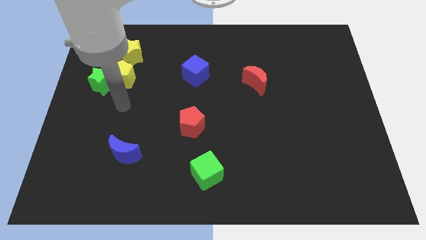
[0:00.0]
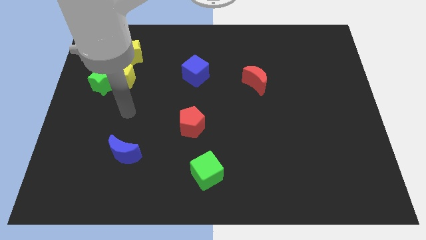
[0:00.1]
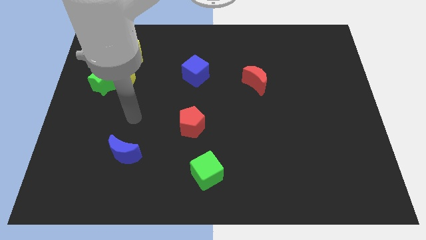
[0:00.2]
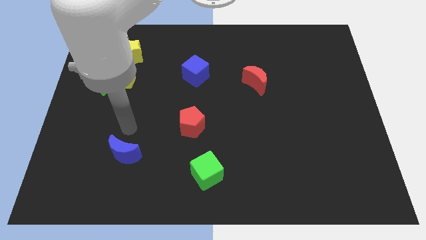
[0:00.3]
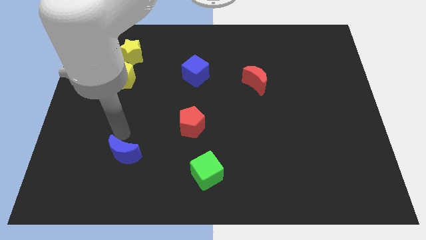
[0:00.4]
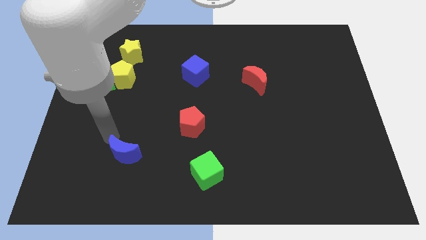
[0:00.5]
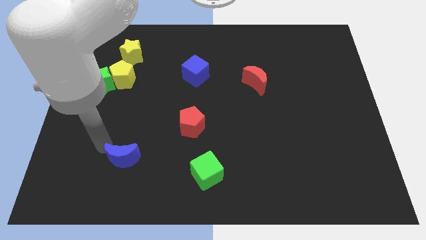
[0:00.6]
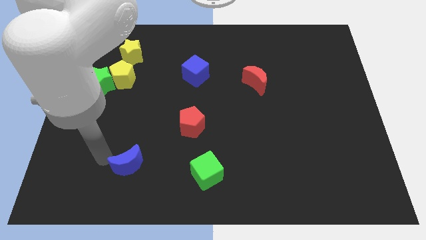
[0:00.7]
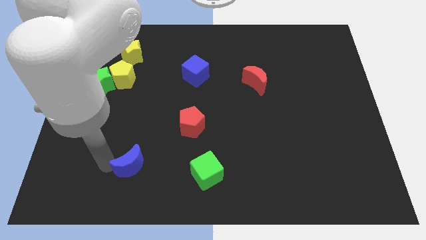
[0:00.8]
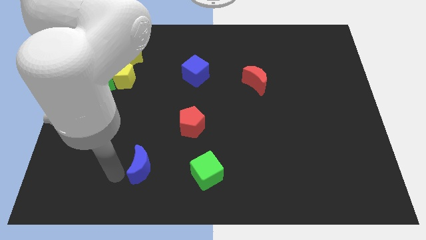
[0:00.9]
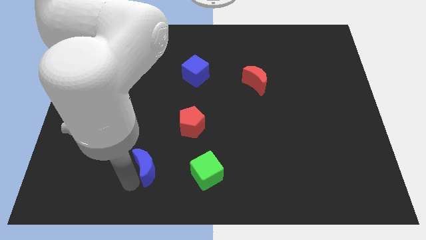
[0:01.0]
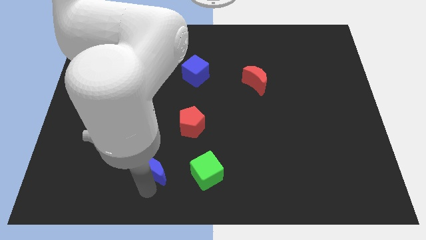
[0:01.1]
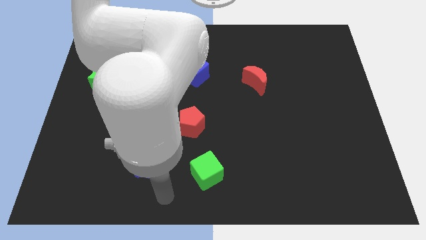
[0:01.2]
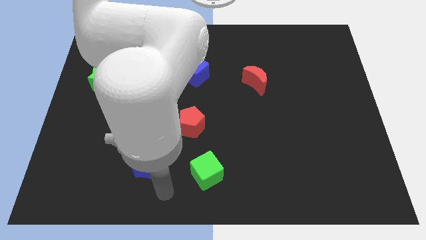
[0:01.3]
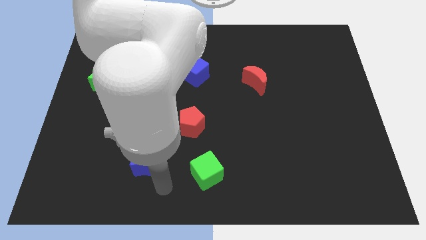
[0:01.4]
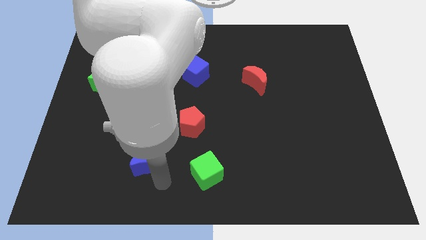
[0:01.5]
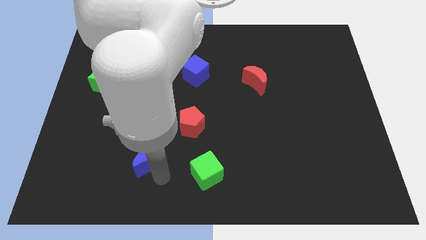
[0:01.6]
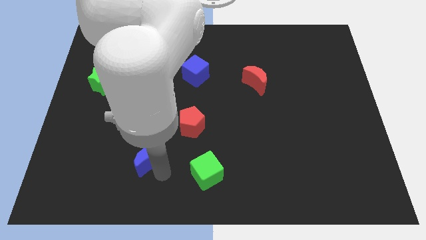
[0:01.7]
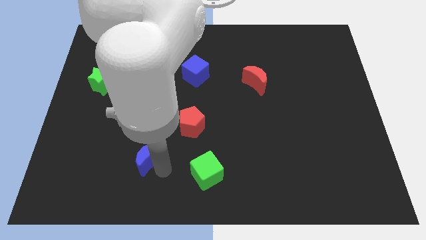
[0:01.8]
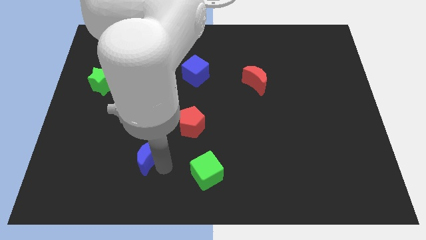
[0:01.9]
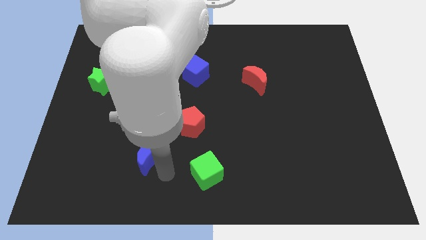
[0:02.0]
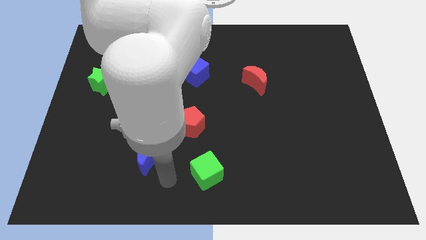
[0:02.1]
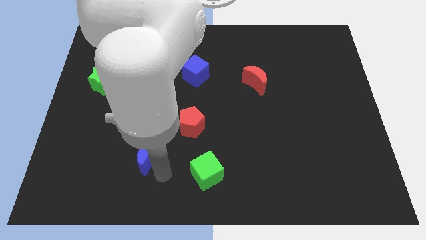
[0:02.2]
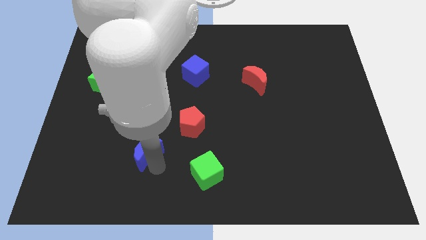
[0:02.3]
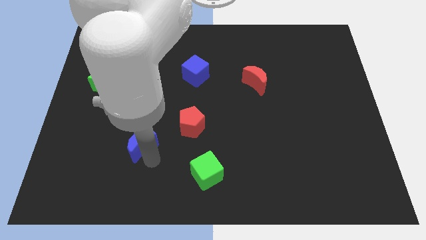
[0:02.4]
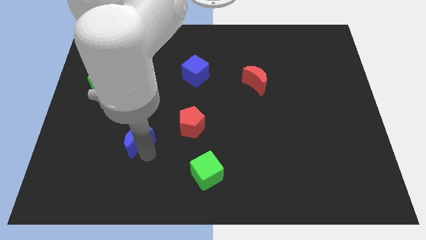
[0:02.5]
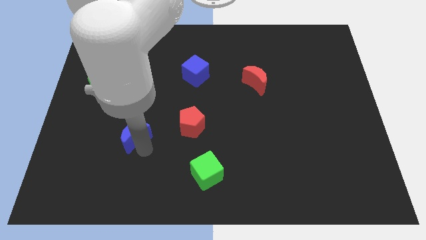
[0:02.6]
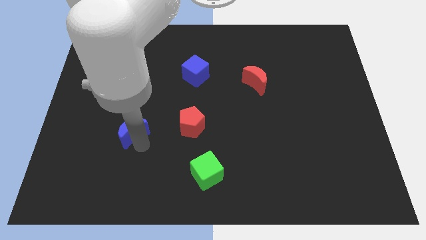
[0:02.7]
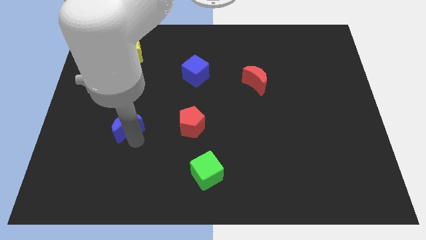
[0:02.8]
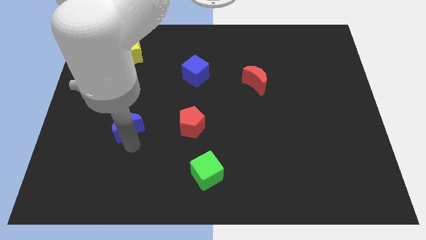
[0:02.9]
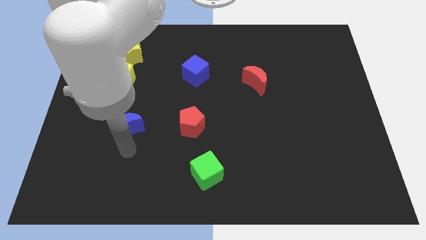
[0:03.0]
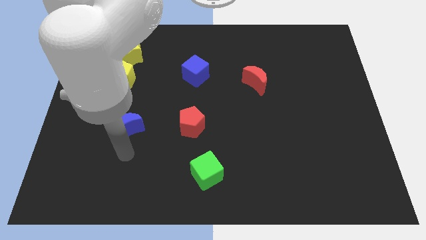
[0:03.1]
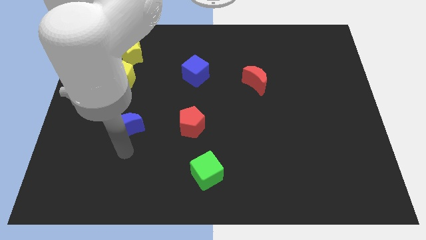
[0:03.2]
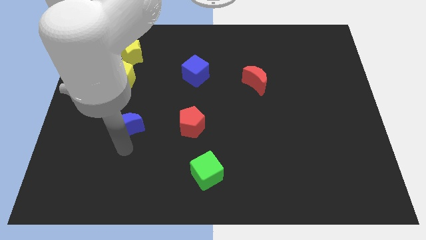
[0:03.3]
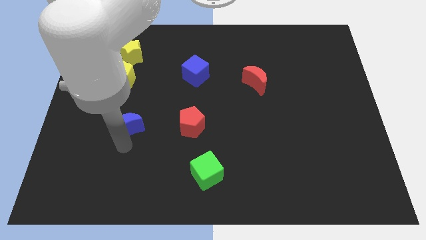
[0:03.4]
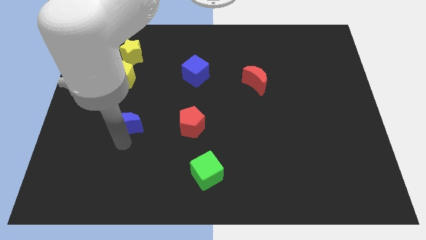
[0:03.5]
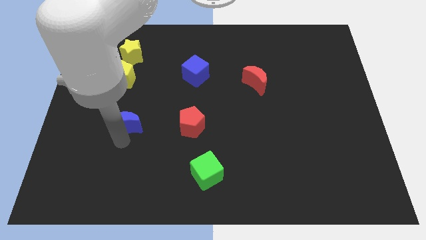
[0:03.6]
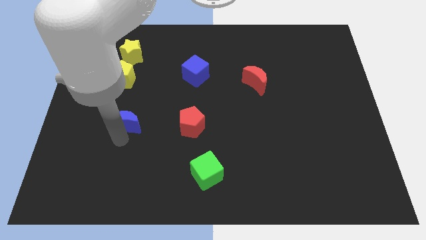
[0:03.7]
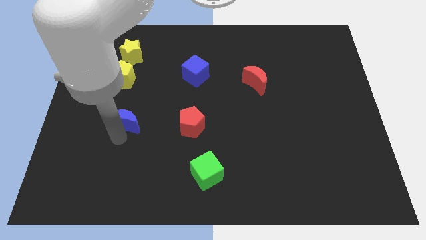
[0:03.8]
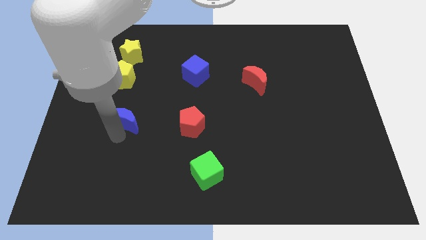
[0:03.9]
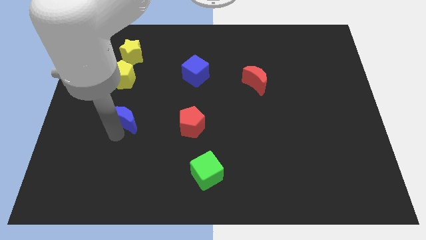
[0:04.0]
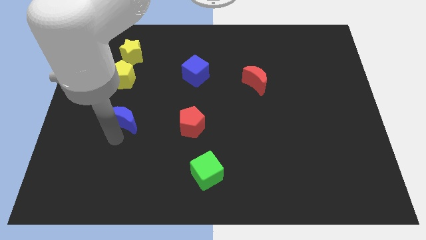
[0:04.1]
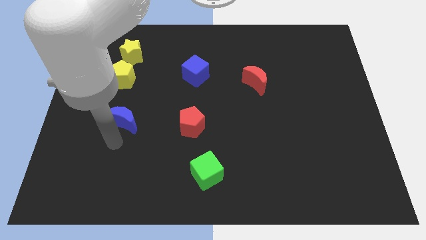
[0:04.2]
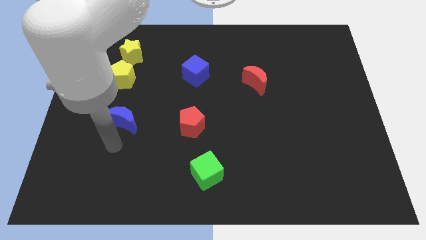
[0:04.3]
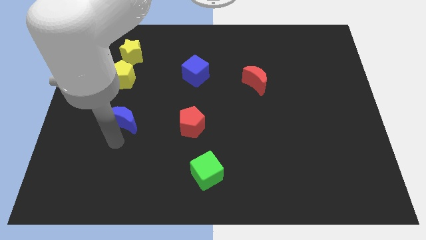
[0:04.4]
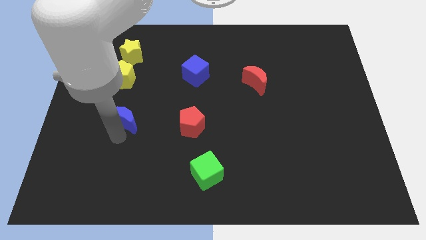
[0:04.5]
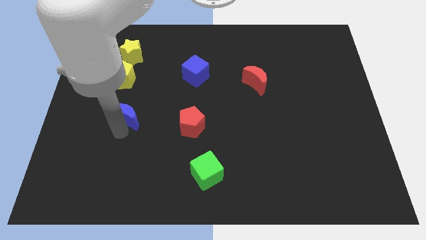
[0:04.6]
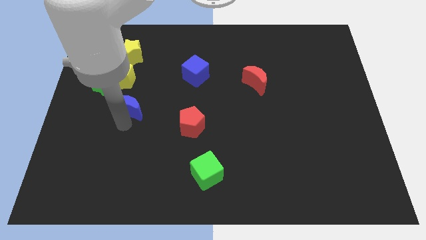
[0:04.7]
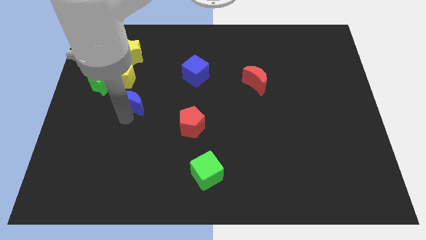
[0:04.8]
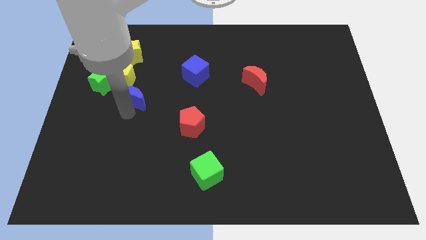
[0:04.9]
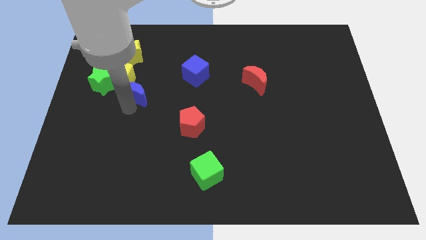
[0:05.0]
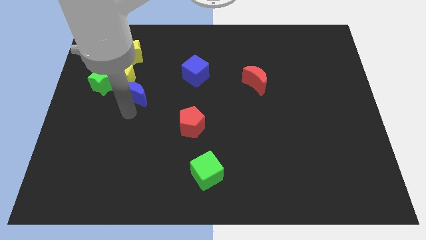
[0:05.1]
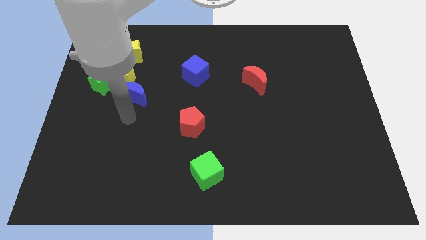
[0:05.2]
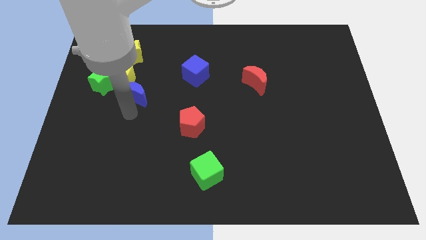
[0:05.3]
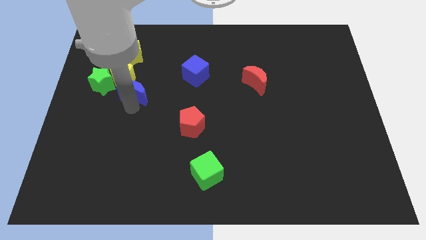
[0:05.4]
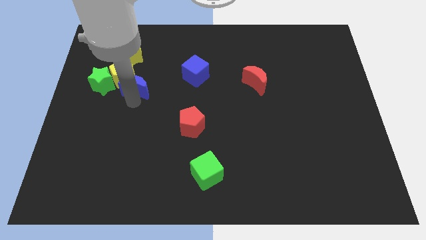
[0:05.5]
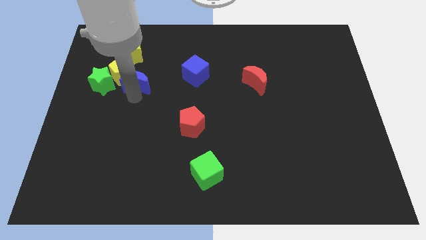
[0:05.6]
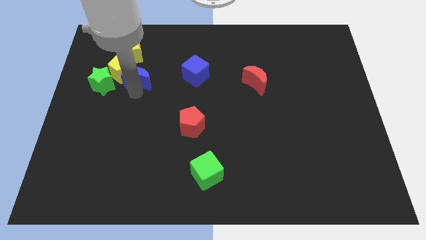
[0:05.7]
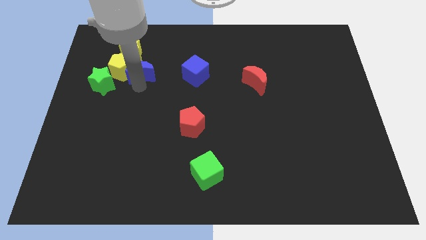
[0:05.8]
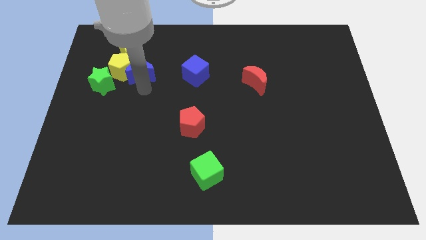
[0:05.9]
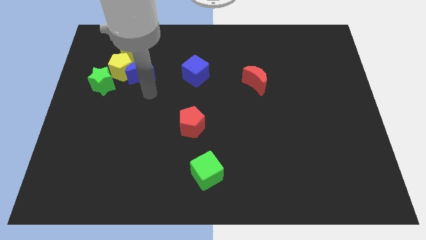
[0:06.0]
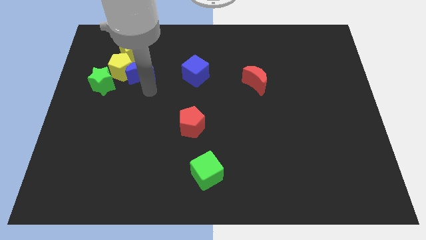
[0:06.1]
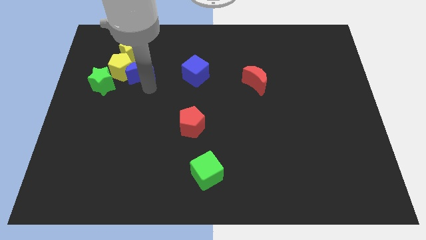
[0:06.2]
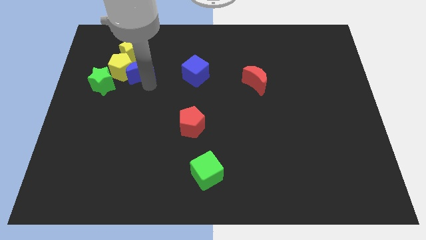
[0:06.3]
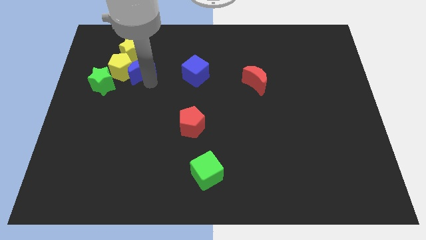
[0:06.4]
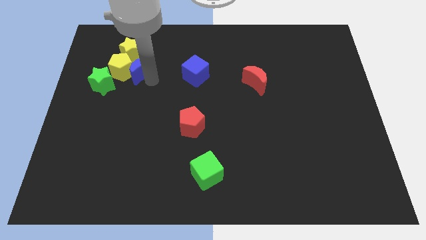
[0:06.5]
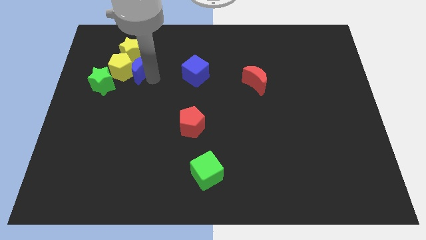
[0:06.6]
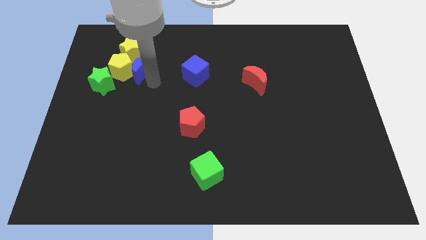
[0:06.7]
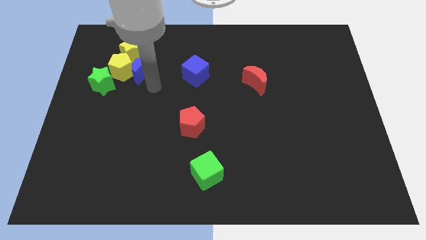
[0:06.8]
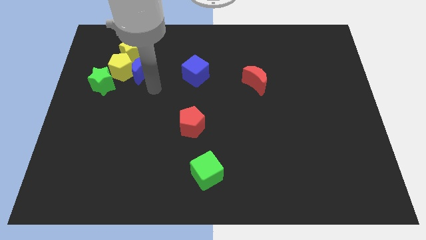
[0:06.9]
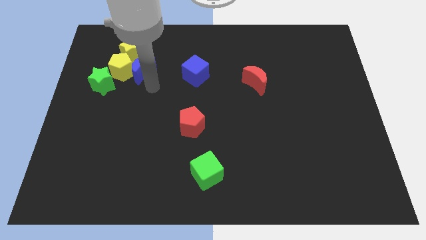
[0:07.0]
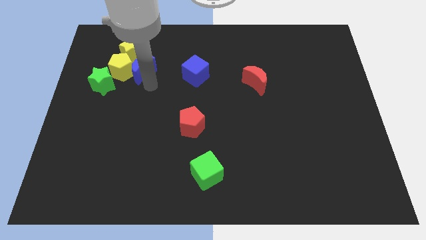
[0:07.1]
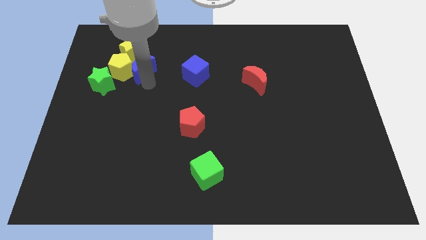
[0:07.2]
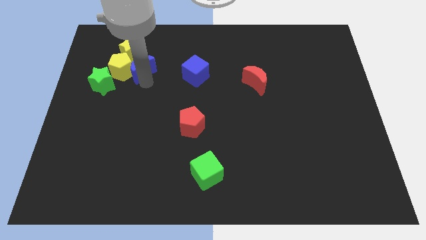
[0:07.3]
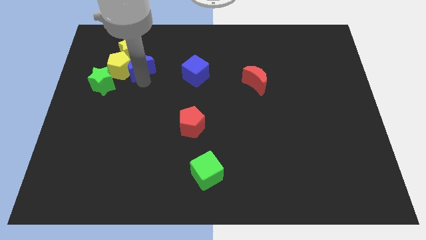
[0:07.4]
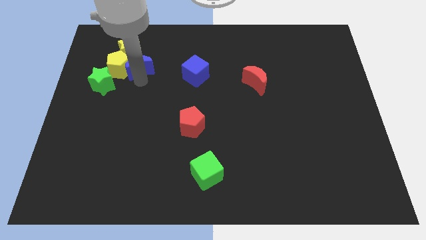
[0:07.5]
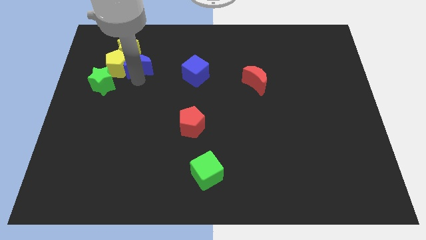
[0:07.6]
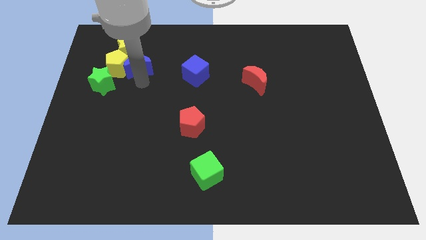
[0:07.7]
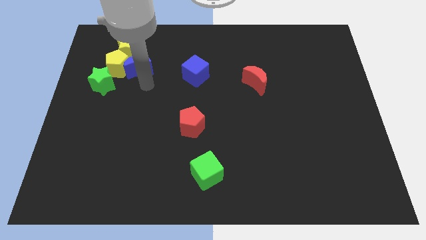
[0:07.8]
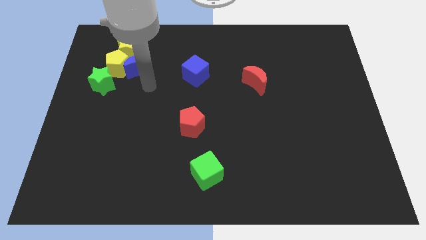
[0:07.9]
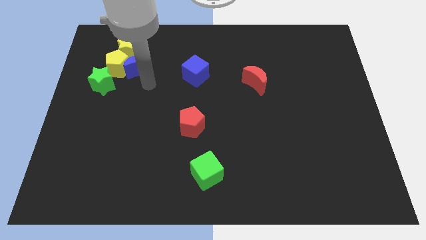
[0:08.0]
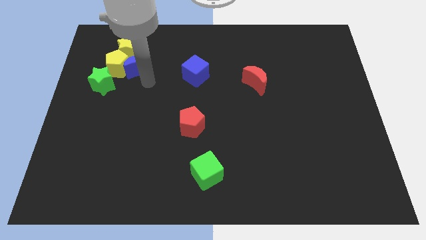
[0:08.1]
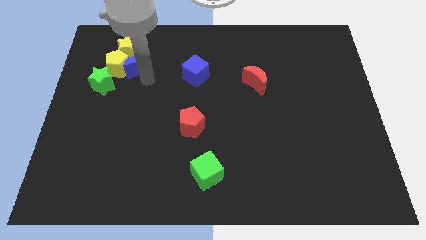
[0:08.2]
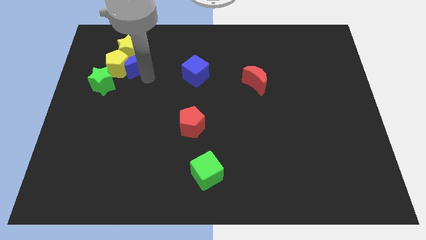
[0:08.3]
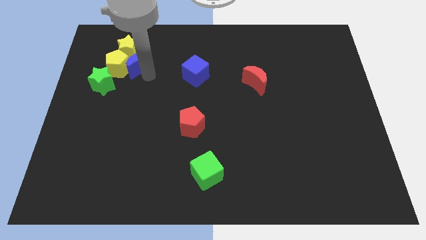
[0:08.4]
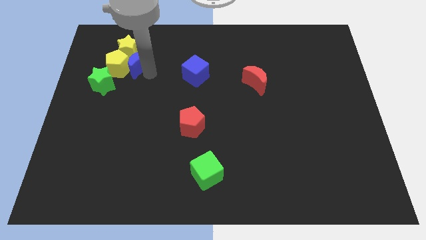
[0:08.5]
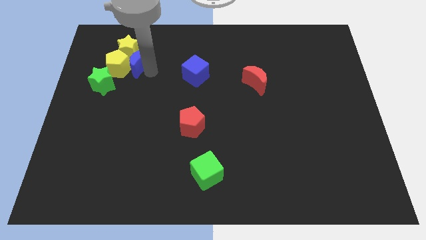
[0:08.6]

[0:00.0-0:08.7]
push the blue moon close to the yellow star
